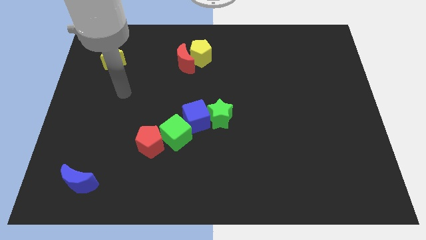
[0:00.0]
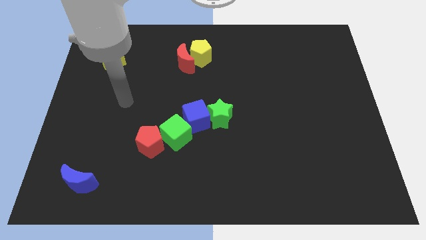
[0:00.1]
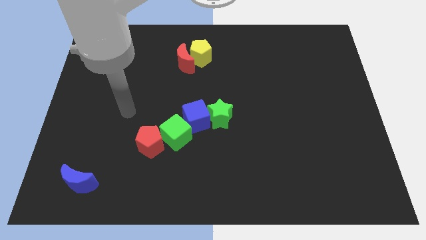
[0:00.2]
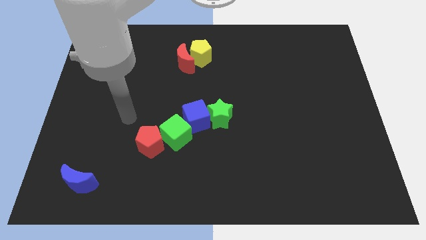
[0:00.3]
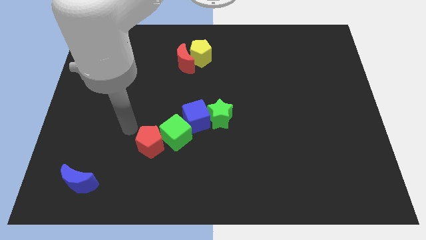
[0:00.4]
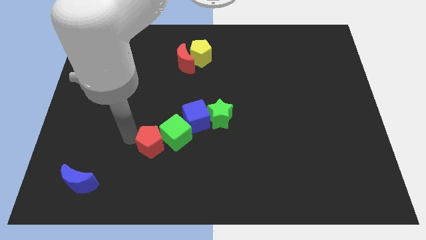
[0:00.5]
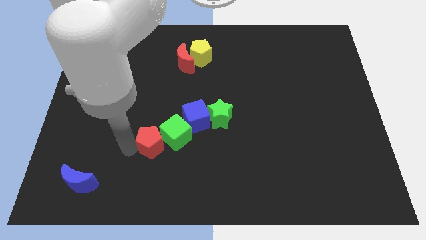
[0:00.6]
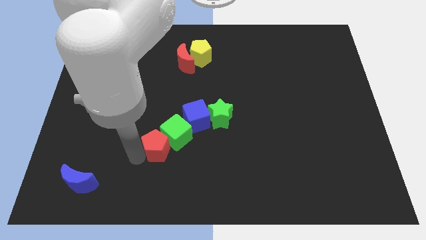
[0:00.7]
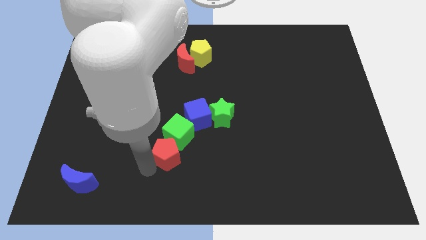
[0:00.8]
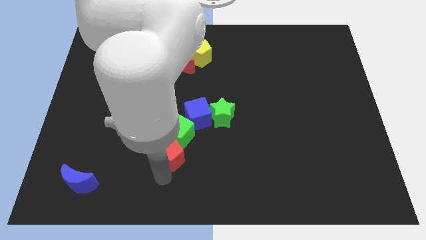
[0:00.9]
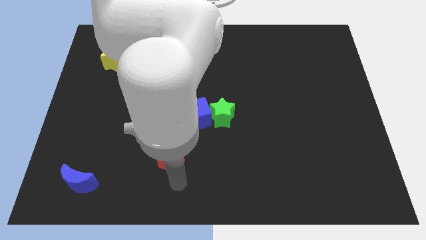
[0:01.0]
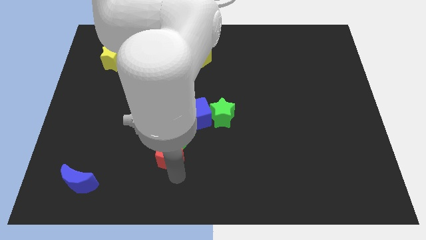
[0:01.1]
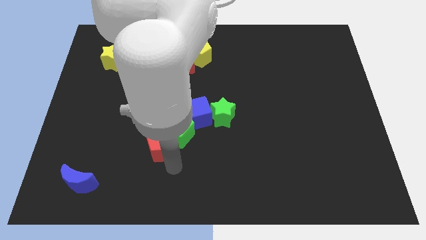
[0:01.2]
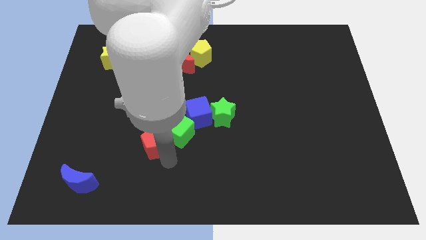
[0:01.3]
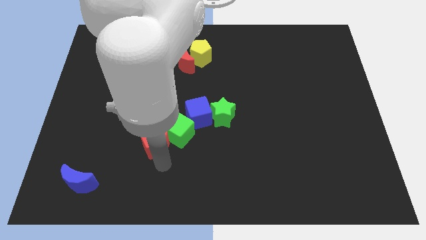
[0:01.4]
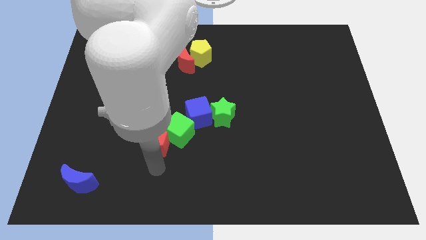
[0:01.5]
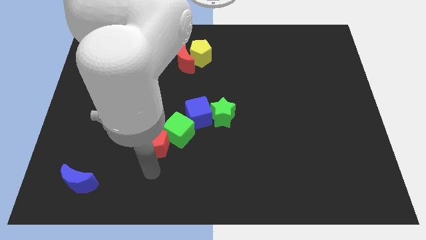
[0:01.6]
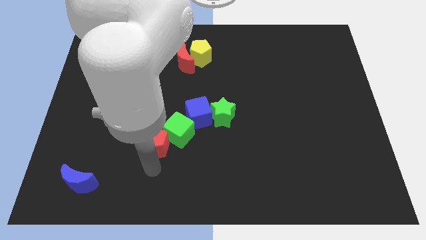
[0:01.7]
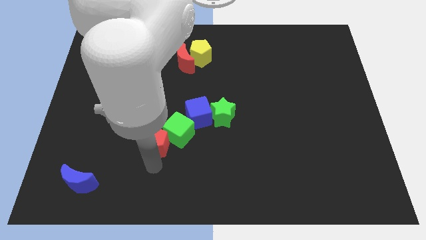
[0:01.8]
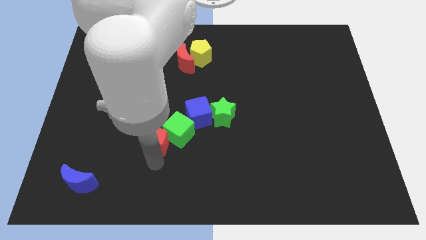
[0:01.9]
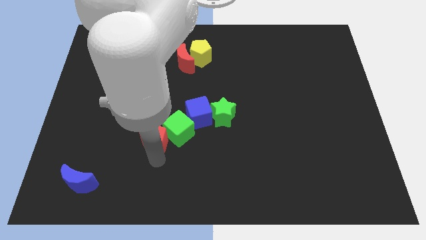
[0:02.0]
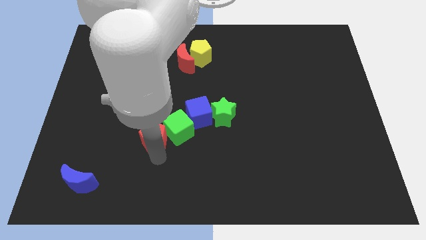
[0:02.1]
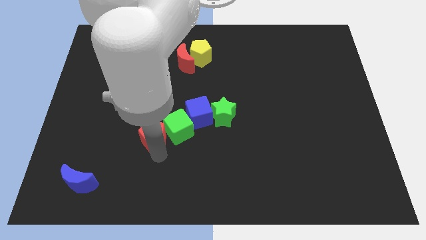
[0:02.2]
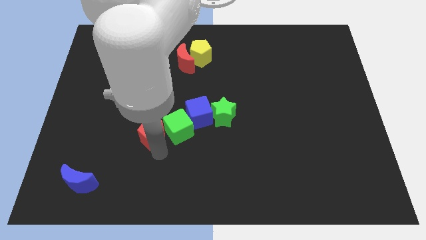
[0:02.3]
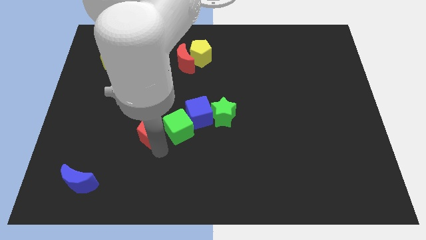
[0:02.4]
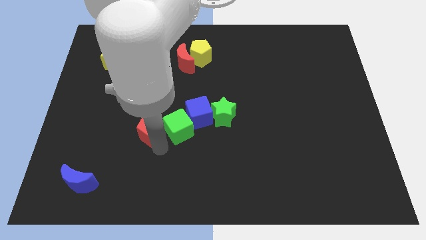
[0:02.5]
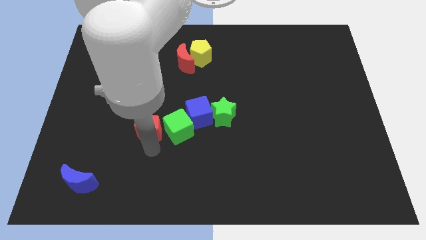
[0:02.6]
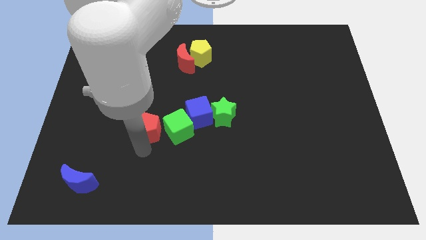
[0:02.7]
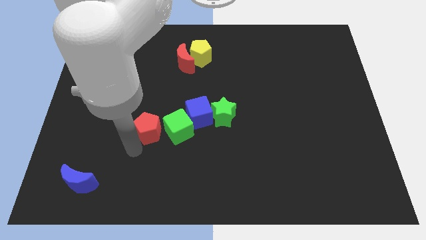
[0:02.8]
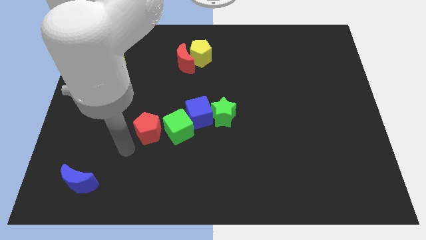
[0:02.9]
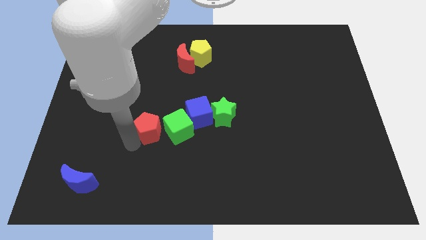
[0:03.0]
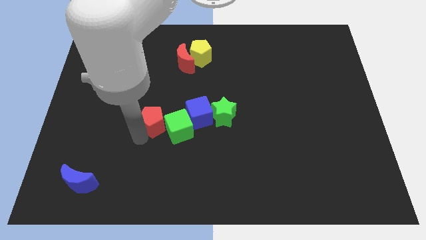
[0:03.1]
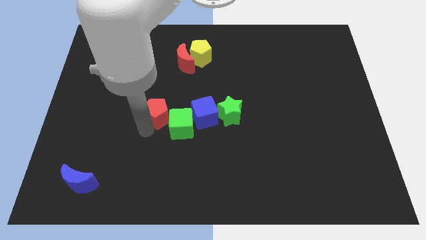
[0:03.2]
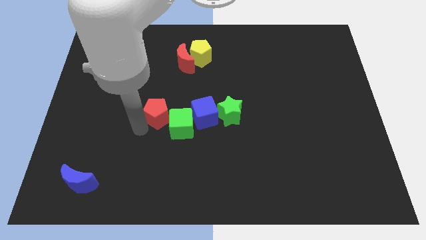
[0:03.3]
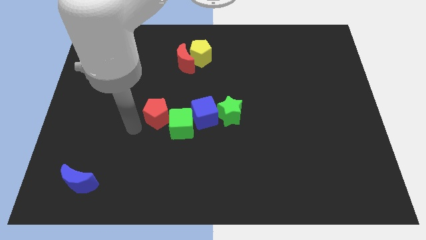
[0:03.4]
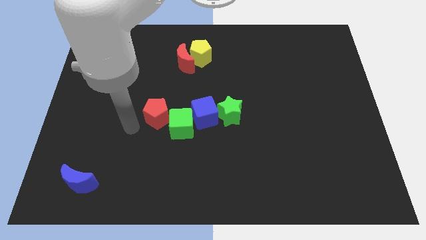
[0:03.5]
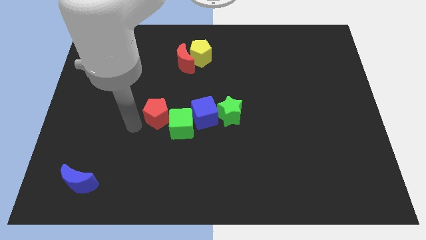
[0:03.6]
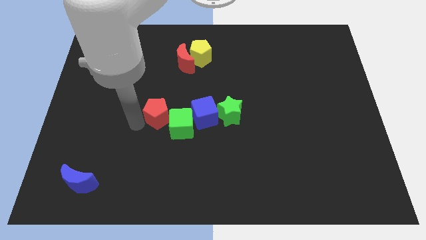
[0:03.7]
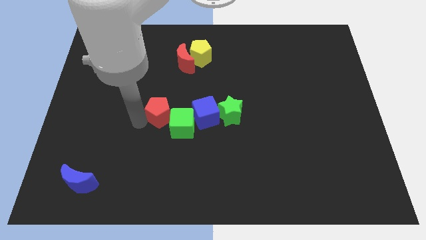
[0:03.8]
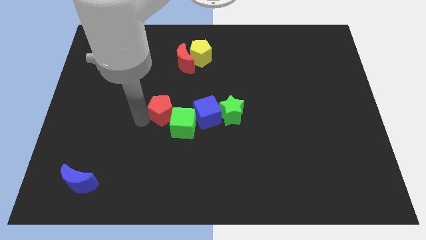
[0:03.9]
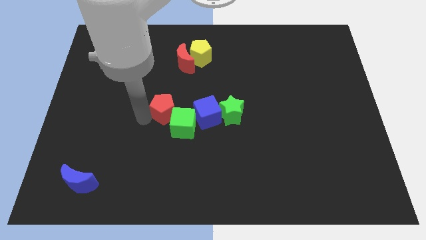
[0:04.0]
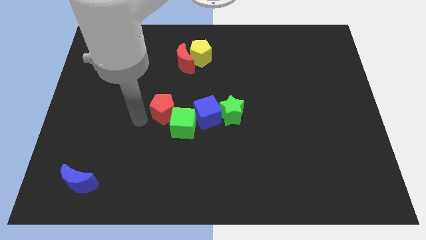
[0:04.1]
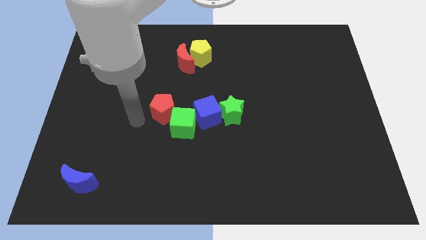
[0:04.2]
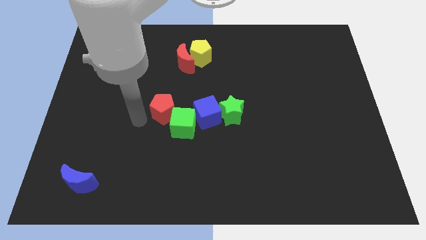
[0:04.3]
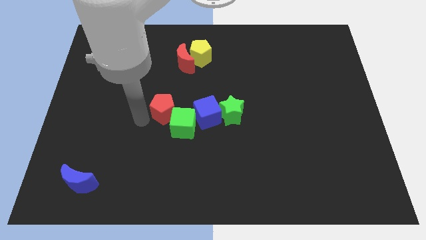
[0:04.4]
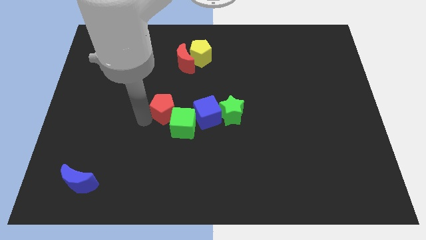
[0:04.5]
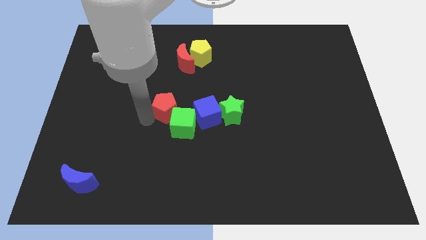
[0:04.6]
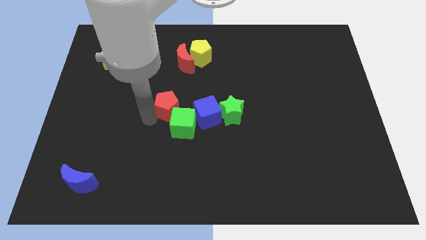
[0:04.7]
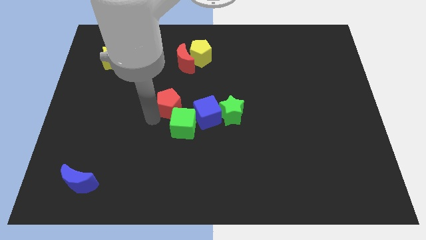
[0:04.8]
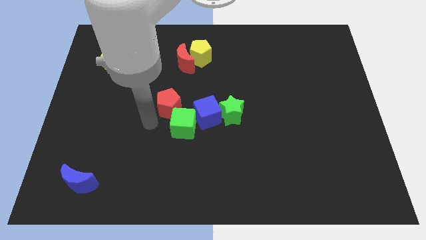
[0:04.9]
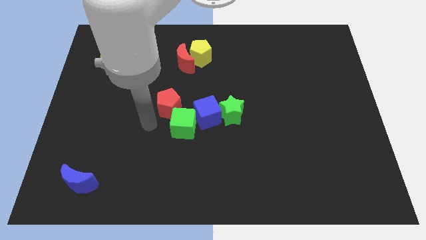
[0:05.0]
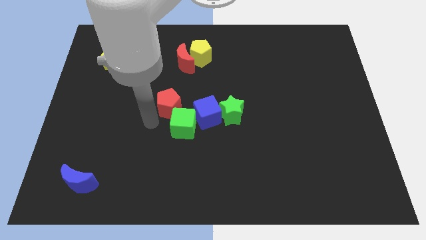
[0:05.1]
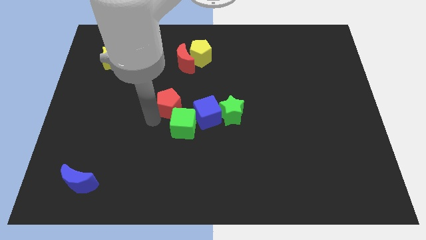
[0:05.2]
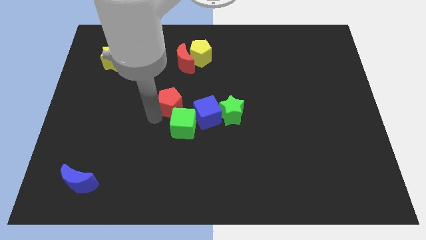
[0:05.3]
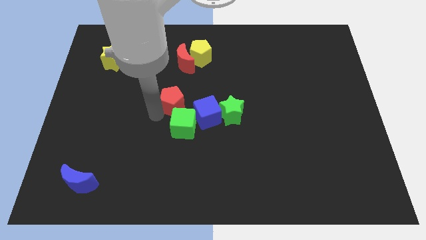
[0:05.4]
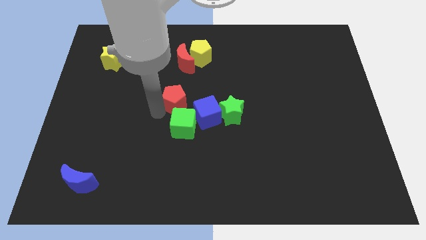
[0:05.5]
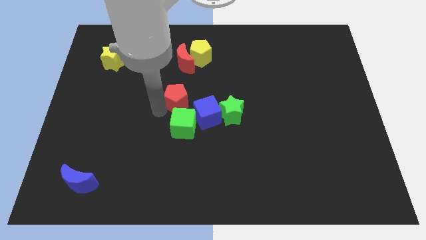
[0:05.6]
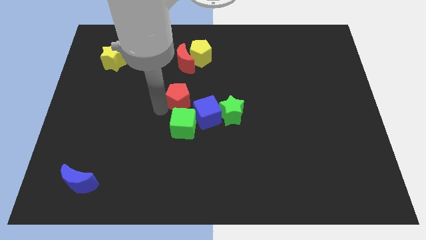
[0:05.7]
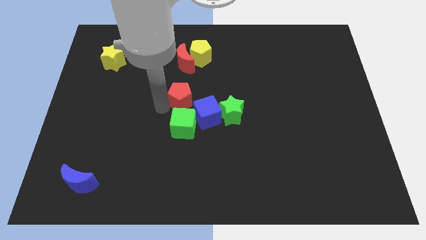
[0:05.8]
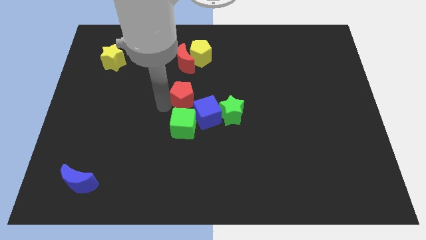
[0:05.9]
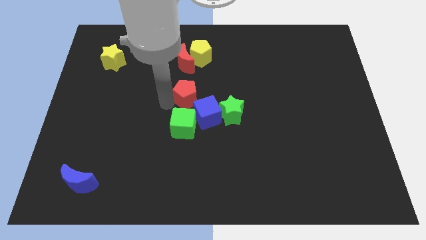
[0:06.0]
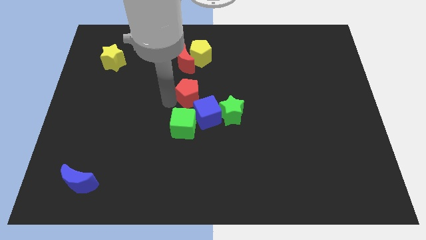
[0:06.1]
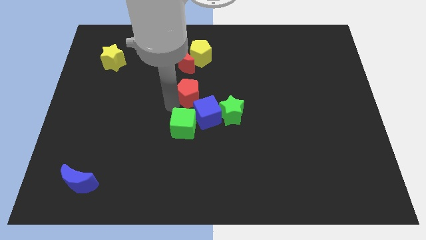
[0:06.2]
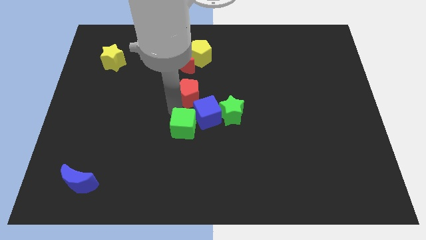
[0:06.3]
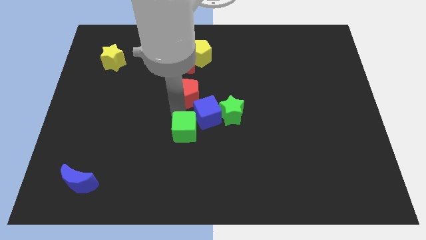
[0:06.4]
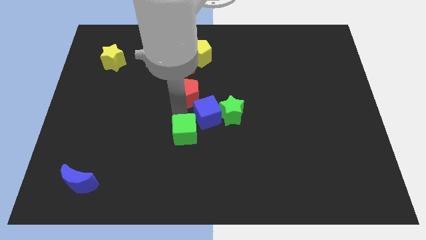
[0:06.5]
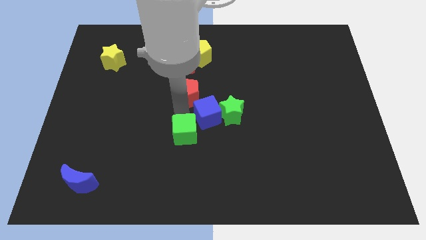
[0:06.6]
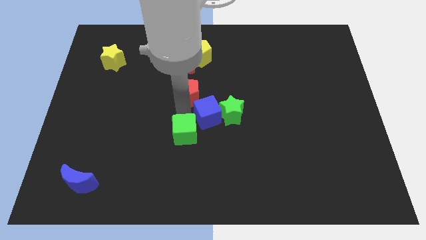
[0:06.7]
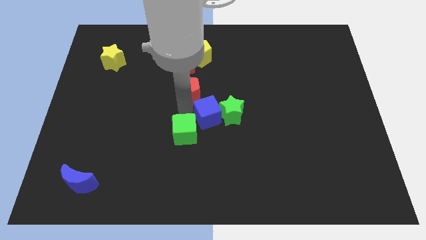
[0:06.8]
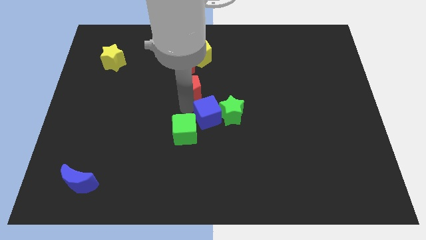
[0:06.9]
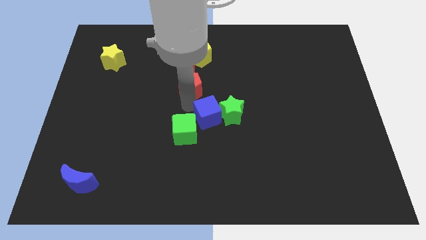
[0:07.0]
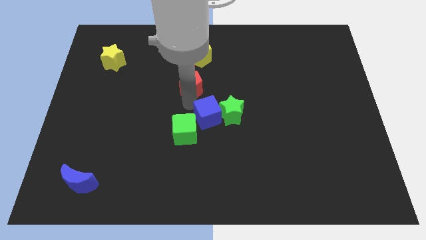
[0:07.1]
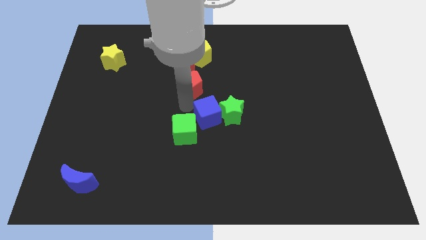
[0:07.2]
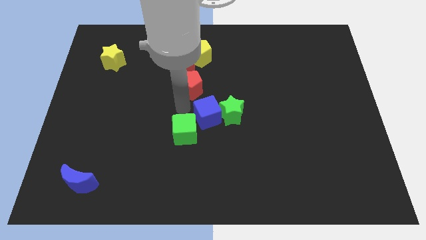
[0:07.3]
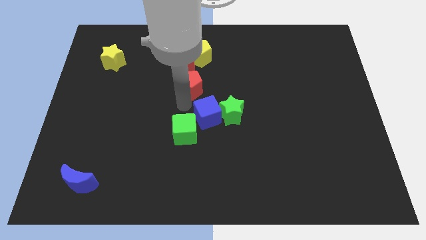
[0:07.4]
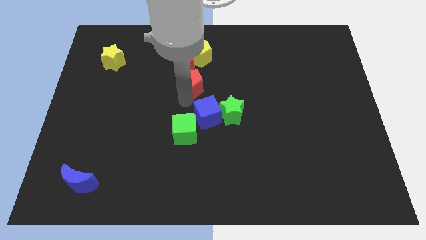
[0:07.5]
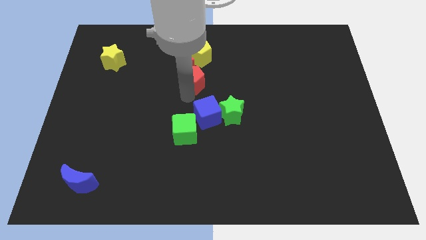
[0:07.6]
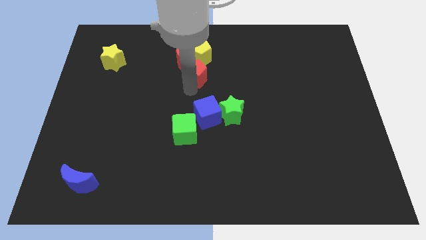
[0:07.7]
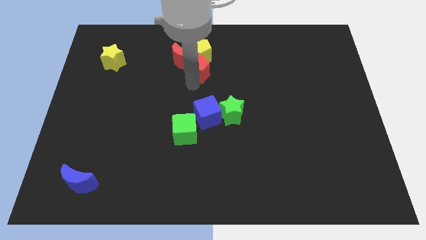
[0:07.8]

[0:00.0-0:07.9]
move the red pentagon towards the yellow pentagon
